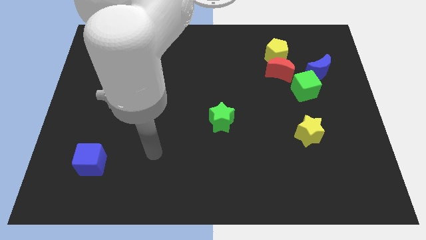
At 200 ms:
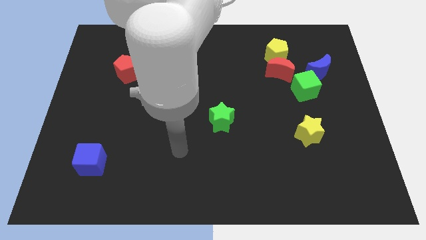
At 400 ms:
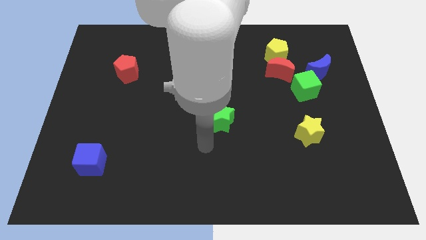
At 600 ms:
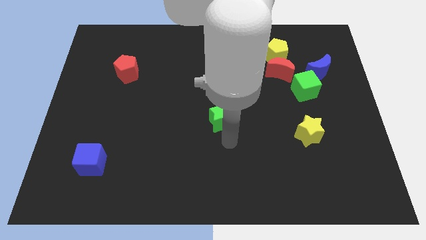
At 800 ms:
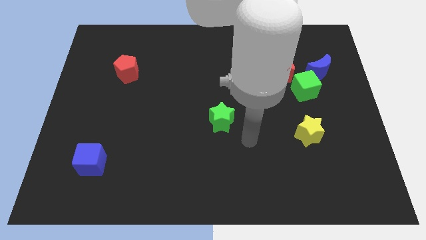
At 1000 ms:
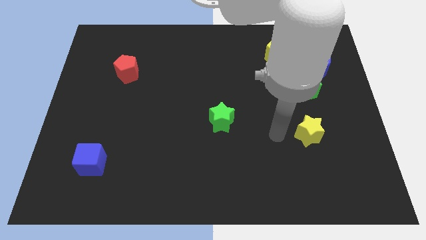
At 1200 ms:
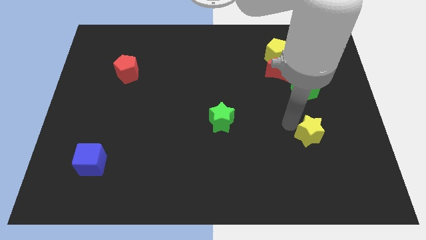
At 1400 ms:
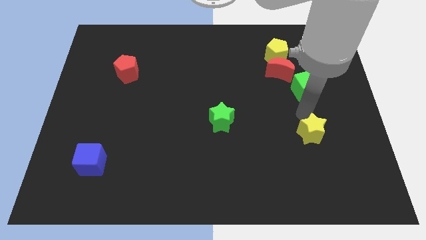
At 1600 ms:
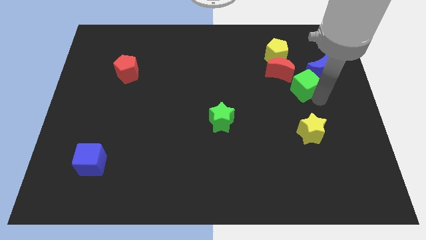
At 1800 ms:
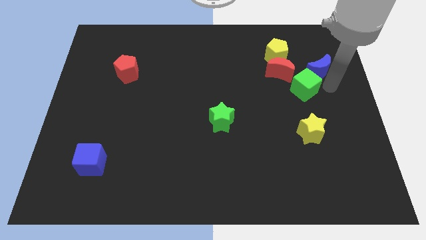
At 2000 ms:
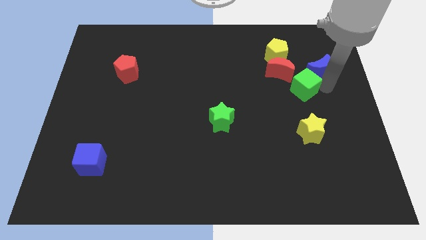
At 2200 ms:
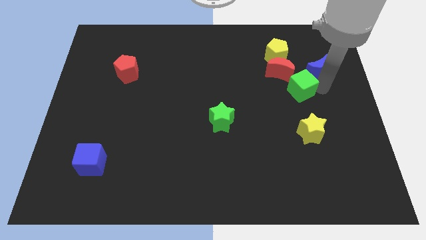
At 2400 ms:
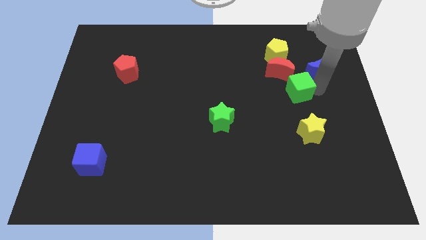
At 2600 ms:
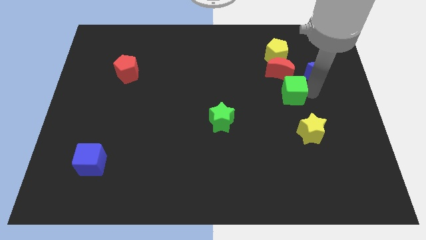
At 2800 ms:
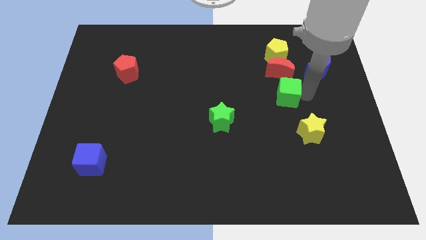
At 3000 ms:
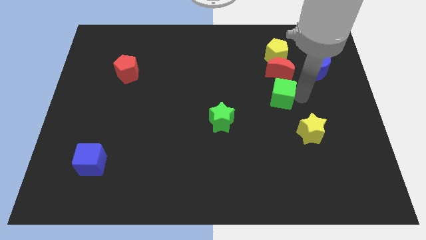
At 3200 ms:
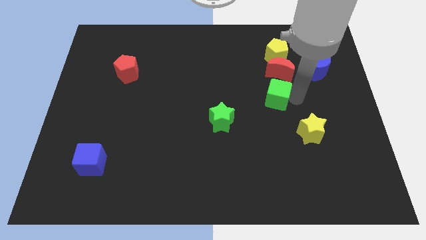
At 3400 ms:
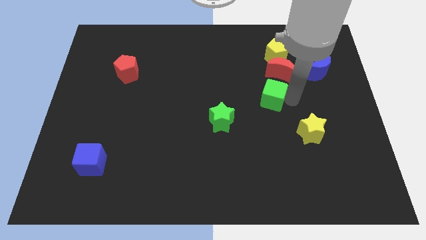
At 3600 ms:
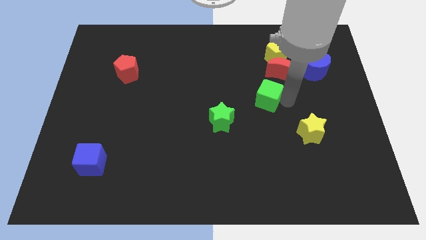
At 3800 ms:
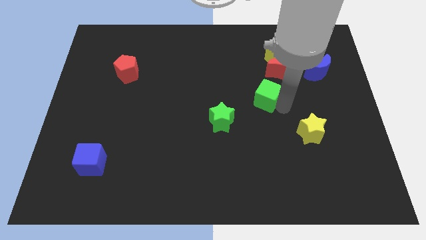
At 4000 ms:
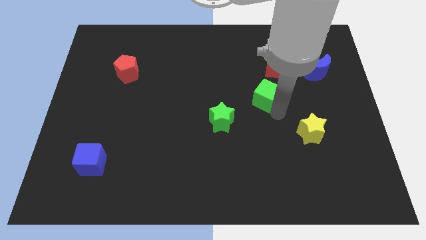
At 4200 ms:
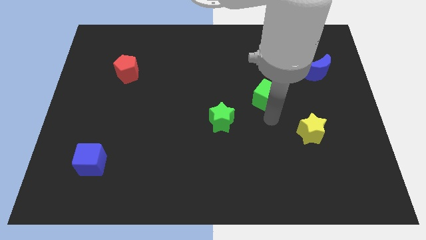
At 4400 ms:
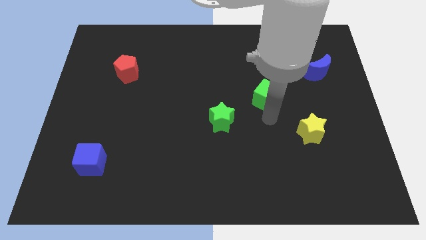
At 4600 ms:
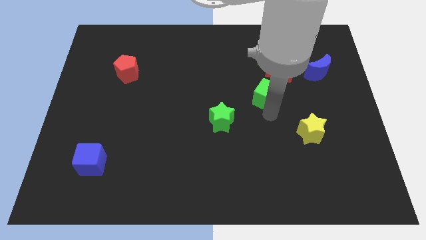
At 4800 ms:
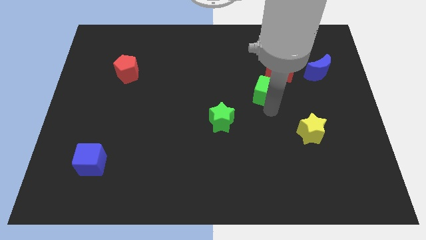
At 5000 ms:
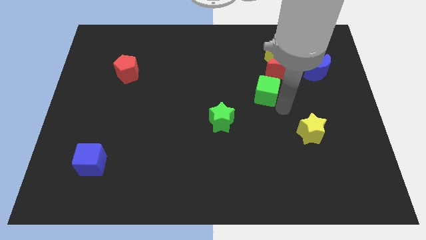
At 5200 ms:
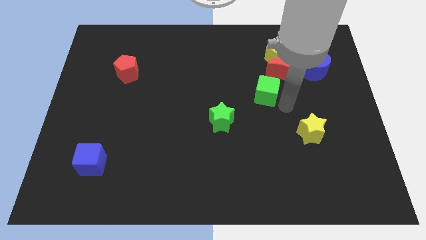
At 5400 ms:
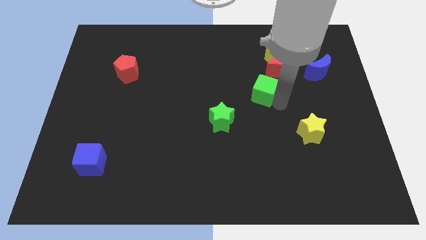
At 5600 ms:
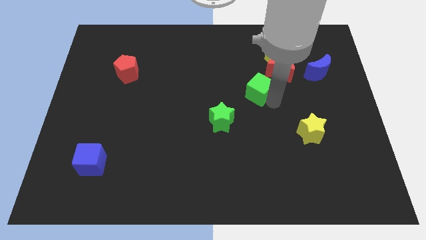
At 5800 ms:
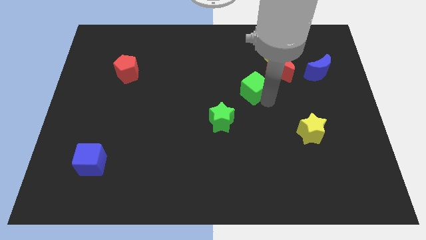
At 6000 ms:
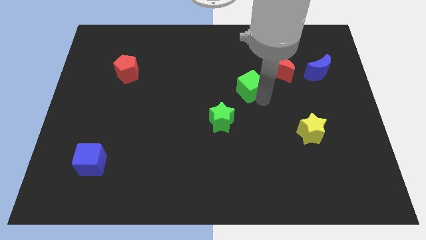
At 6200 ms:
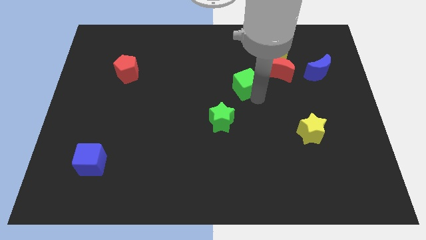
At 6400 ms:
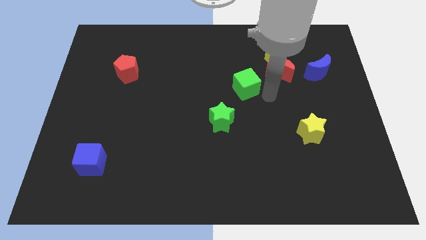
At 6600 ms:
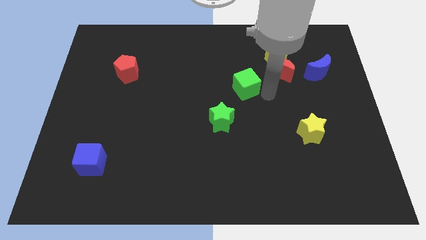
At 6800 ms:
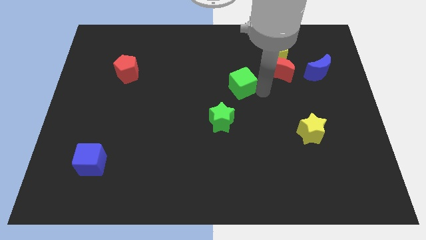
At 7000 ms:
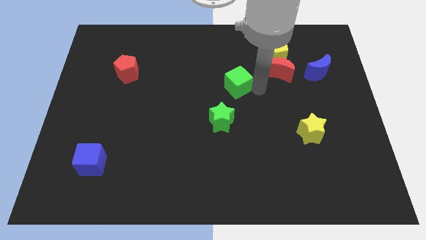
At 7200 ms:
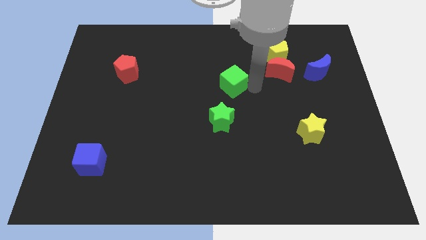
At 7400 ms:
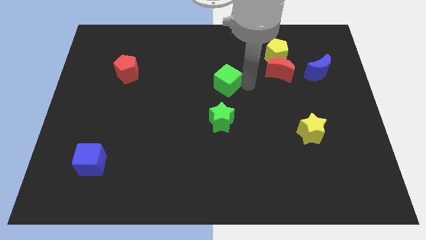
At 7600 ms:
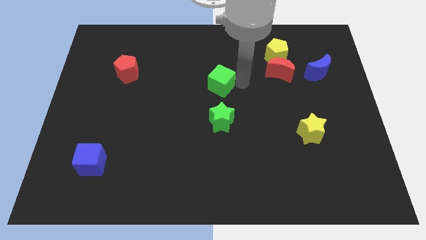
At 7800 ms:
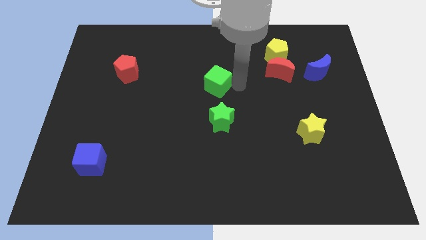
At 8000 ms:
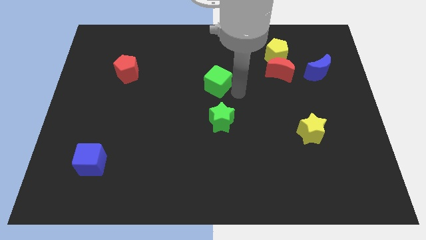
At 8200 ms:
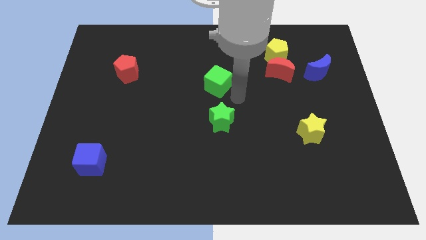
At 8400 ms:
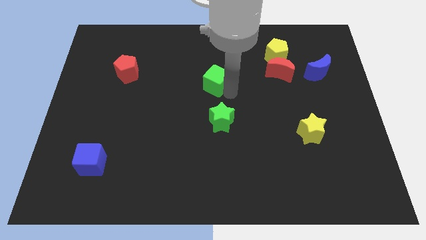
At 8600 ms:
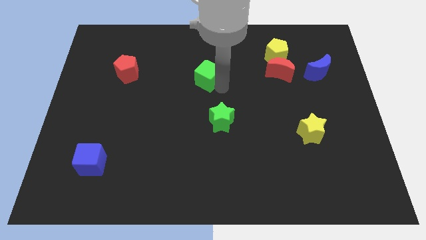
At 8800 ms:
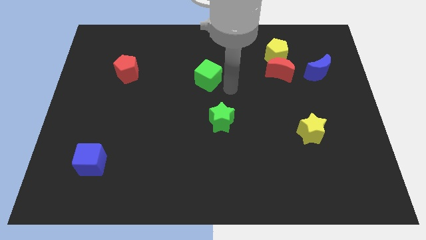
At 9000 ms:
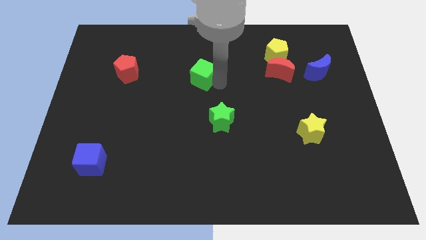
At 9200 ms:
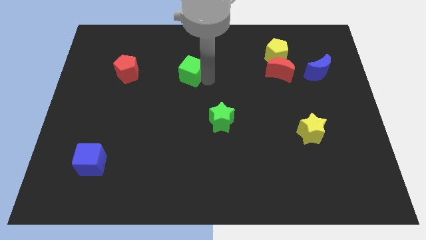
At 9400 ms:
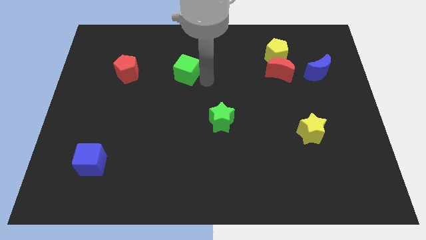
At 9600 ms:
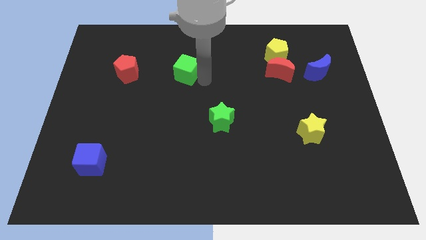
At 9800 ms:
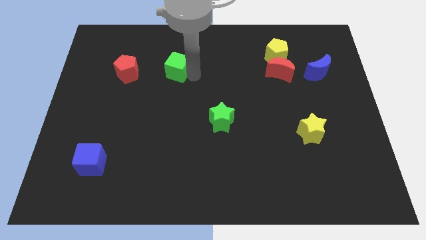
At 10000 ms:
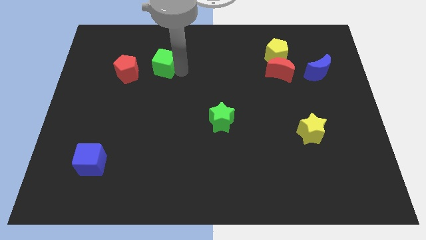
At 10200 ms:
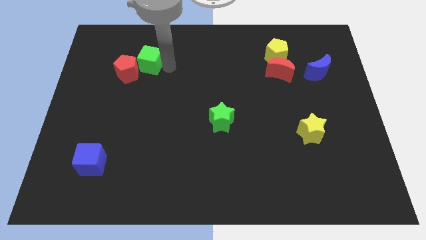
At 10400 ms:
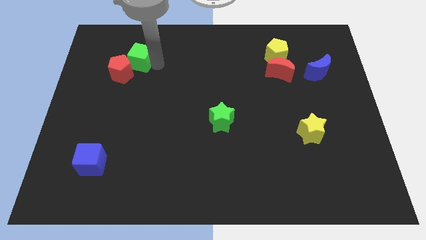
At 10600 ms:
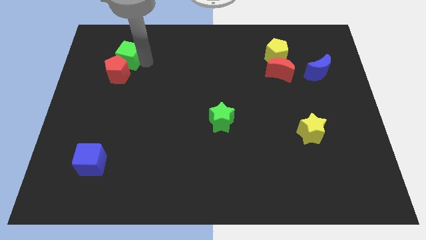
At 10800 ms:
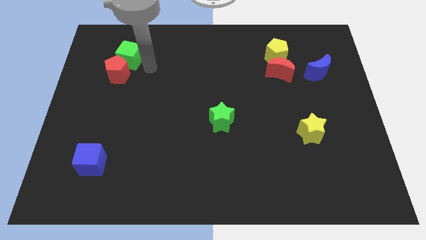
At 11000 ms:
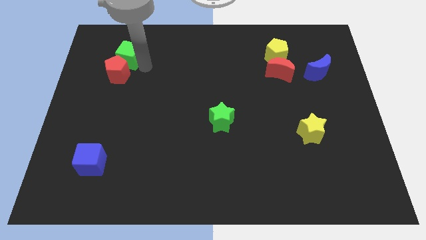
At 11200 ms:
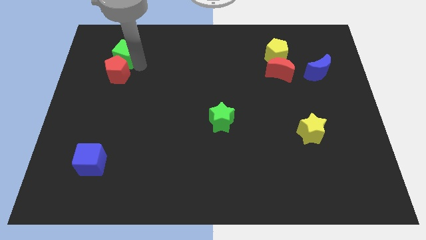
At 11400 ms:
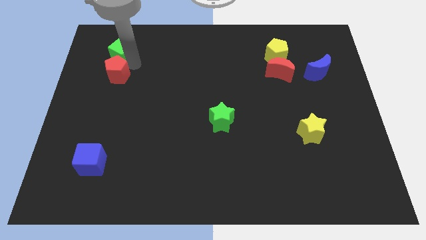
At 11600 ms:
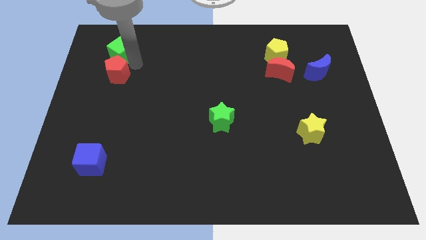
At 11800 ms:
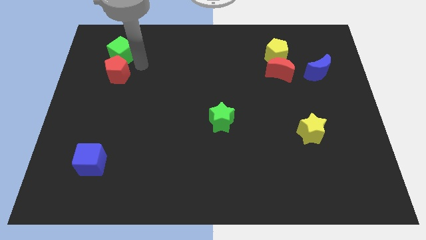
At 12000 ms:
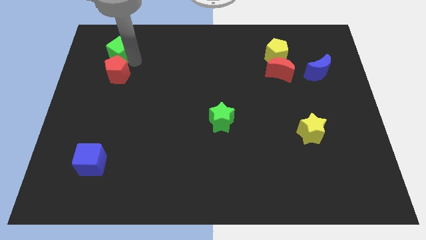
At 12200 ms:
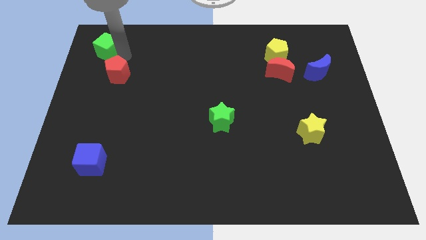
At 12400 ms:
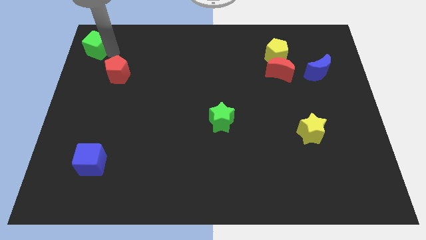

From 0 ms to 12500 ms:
move the green cube to the upper left corner
